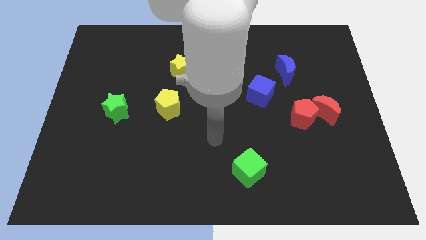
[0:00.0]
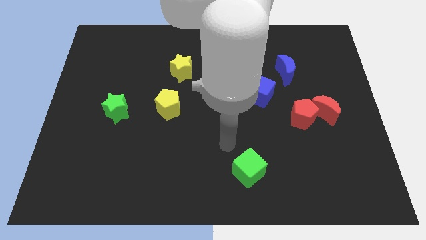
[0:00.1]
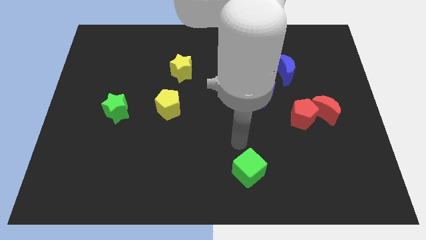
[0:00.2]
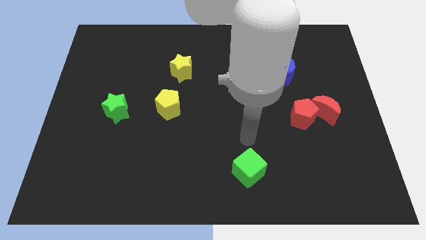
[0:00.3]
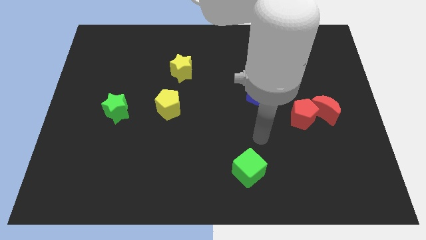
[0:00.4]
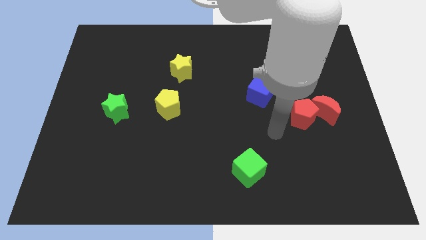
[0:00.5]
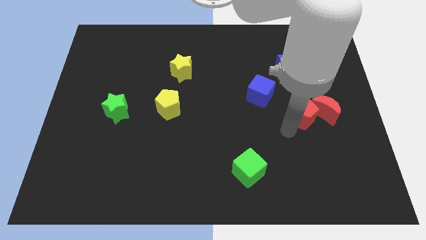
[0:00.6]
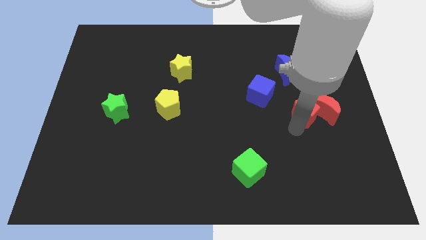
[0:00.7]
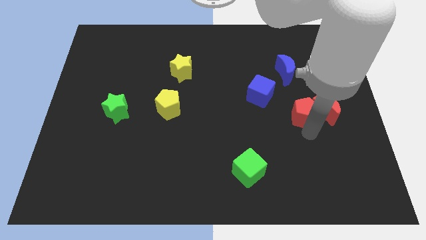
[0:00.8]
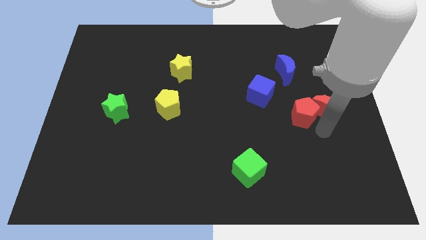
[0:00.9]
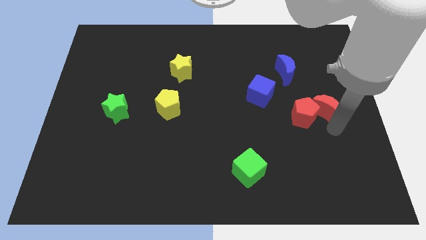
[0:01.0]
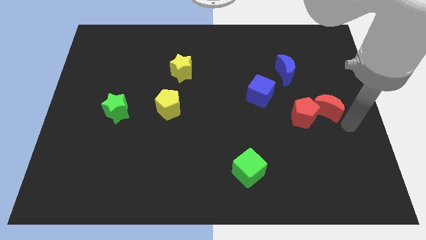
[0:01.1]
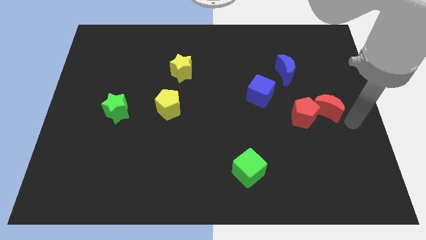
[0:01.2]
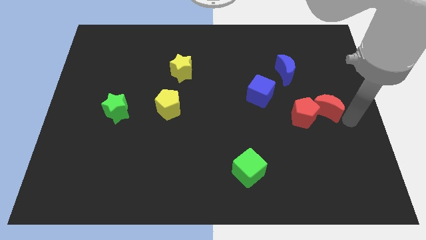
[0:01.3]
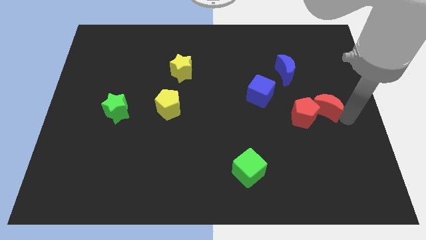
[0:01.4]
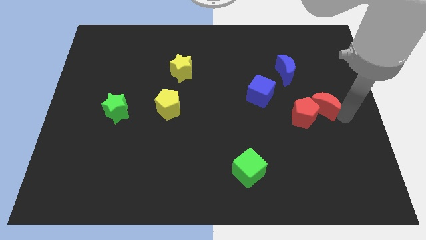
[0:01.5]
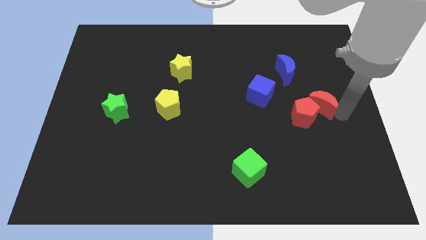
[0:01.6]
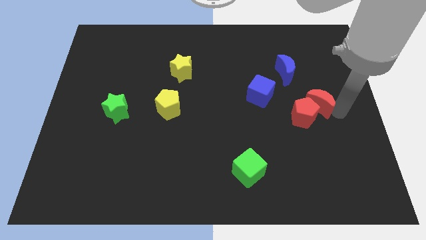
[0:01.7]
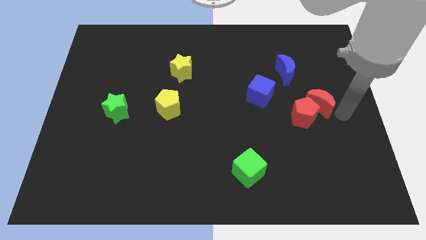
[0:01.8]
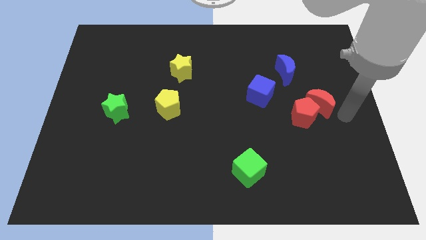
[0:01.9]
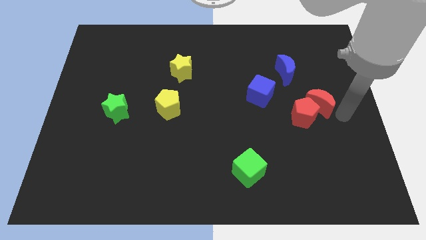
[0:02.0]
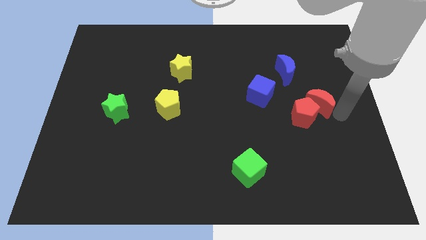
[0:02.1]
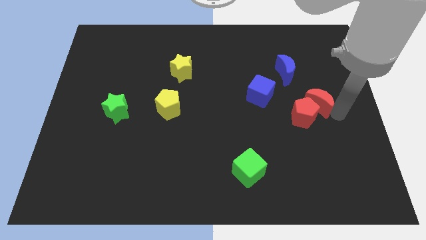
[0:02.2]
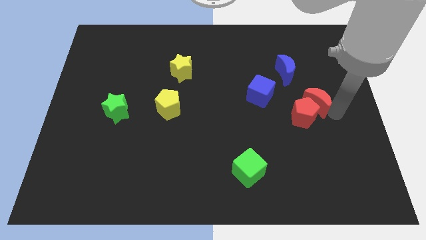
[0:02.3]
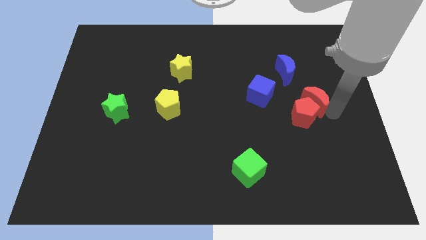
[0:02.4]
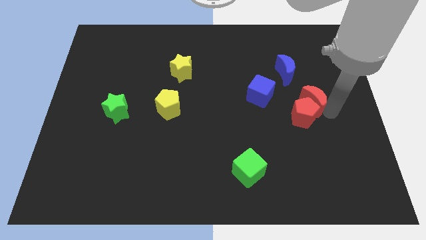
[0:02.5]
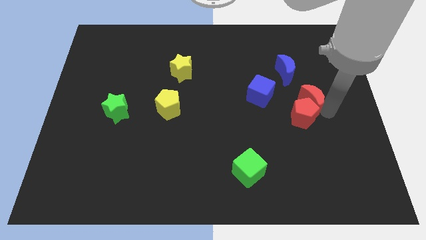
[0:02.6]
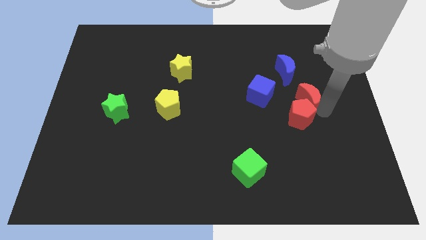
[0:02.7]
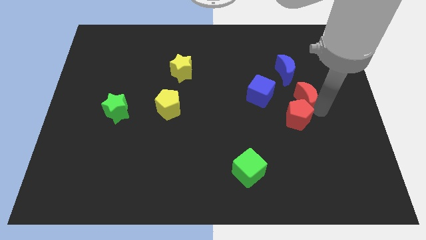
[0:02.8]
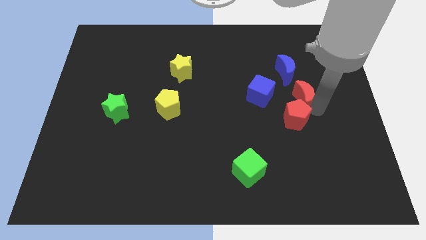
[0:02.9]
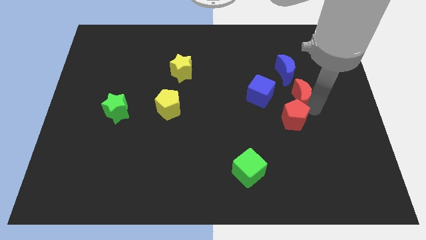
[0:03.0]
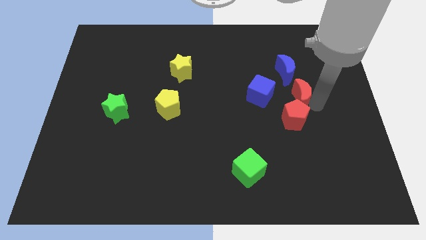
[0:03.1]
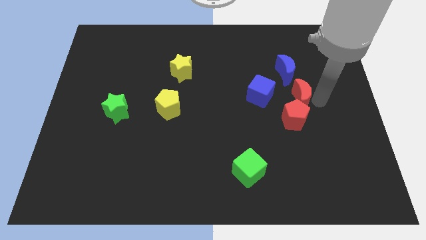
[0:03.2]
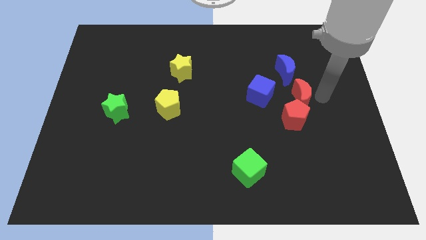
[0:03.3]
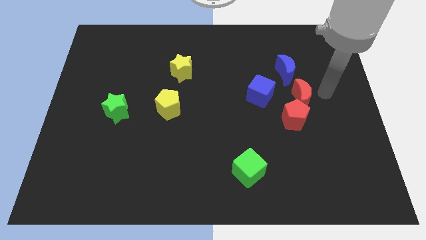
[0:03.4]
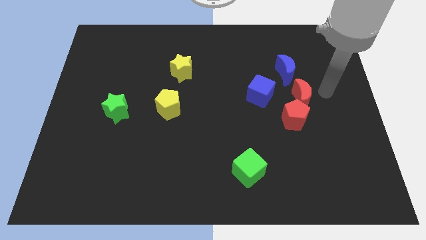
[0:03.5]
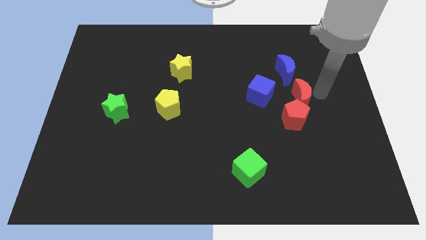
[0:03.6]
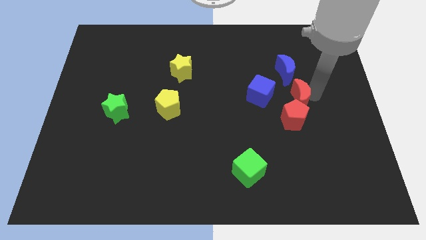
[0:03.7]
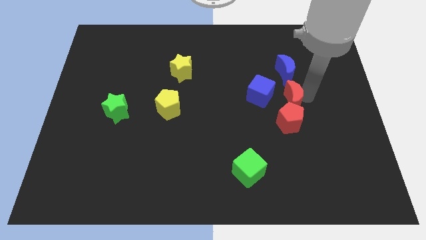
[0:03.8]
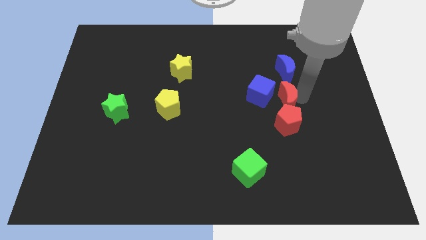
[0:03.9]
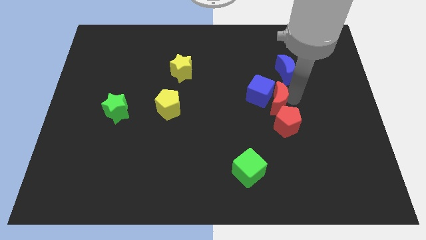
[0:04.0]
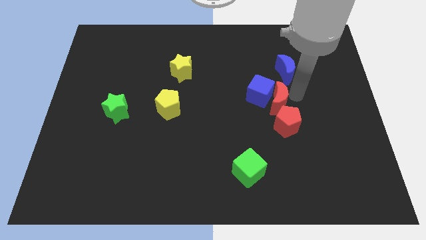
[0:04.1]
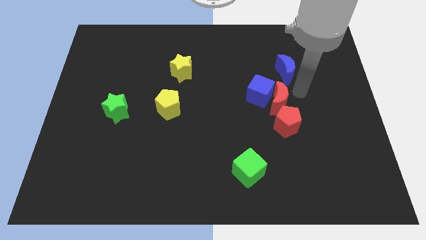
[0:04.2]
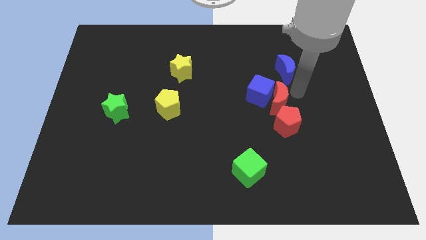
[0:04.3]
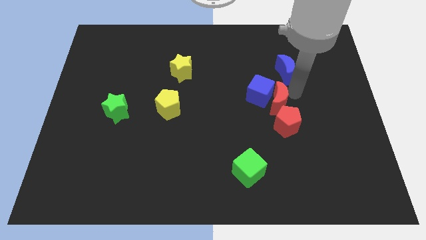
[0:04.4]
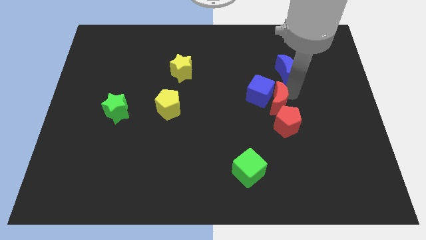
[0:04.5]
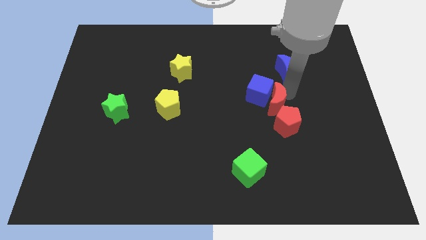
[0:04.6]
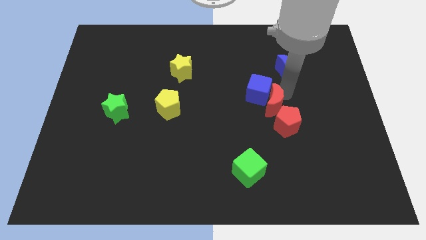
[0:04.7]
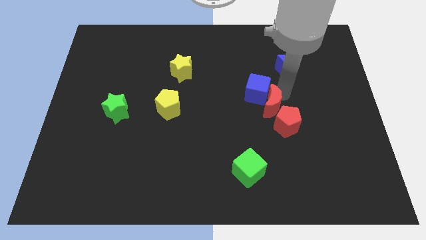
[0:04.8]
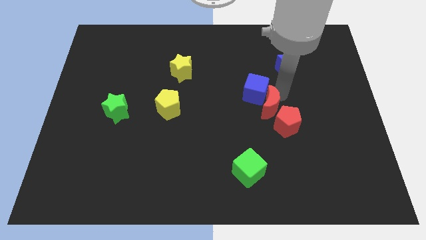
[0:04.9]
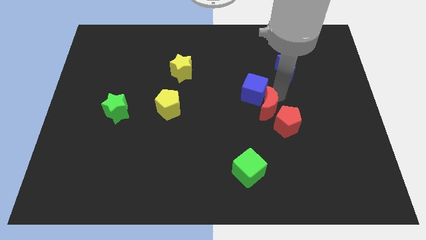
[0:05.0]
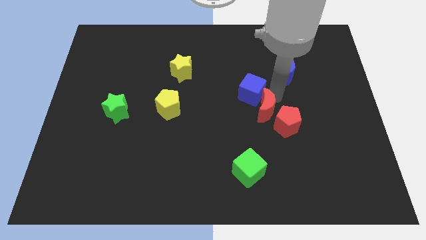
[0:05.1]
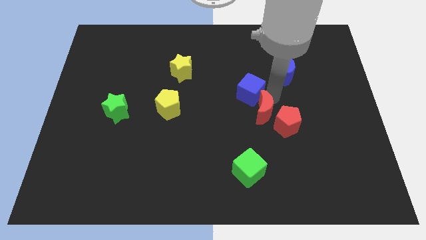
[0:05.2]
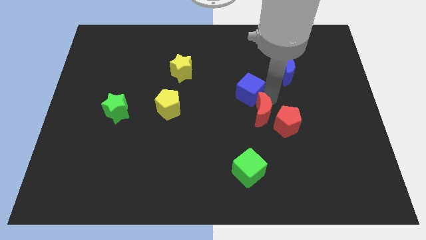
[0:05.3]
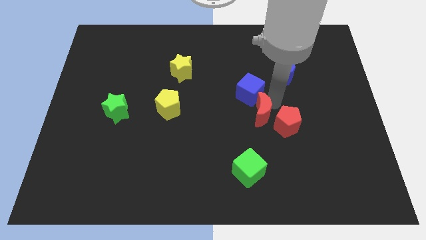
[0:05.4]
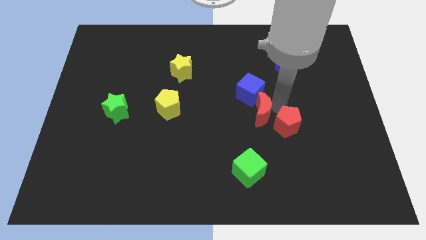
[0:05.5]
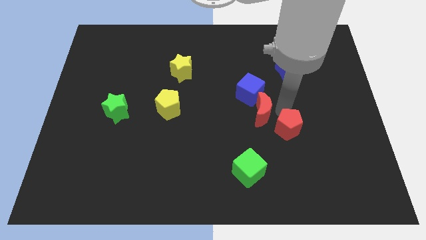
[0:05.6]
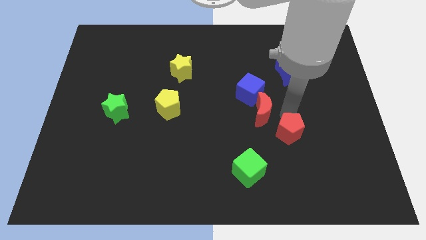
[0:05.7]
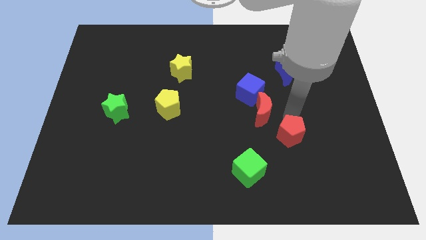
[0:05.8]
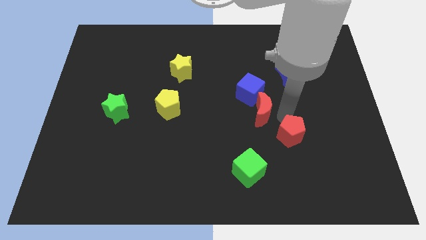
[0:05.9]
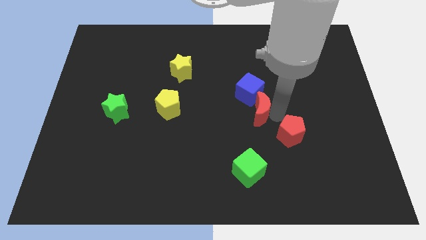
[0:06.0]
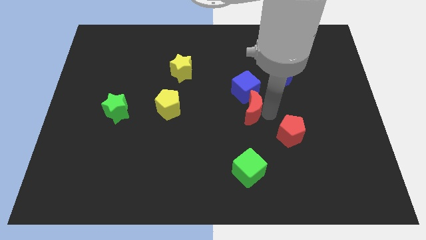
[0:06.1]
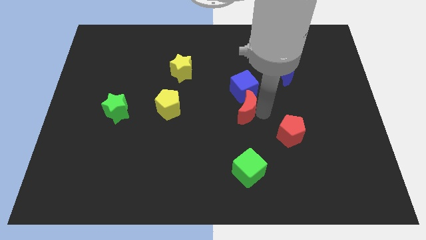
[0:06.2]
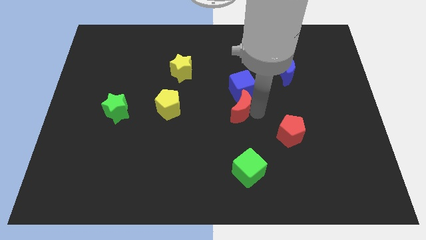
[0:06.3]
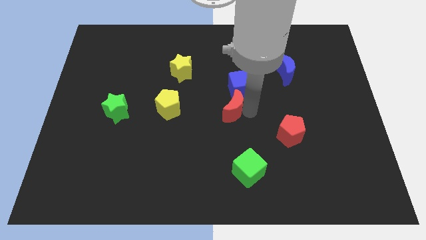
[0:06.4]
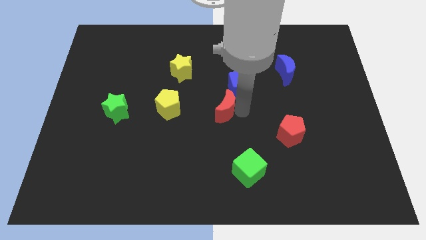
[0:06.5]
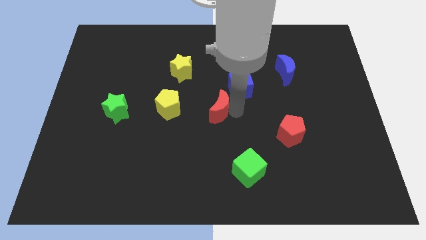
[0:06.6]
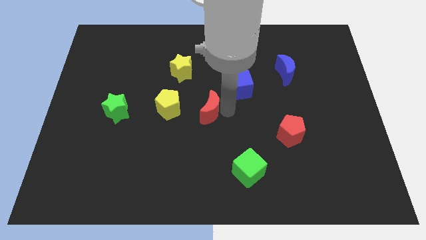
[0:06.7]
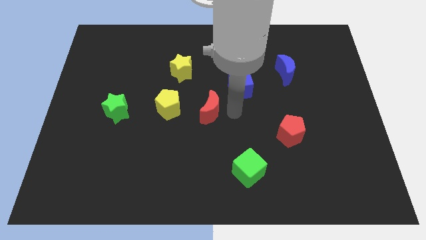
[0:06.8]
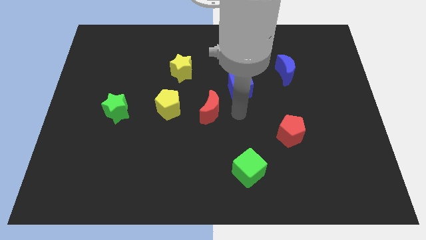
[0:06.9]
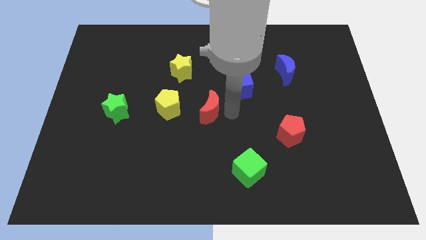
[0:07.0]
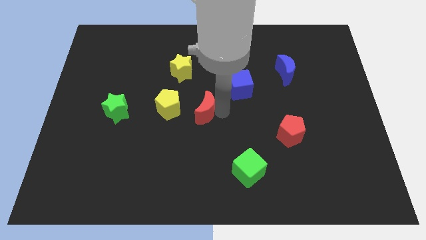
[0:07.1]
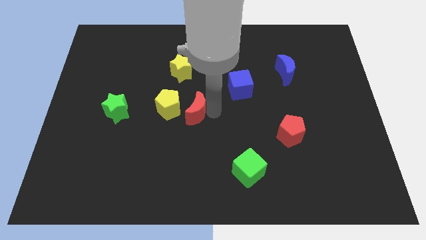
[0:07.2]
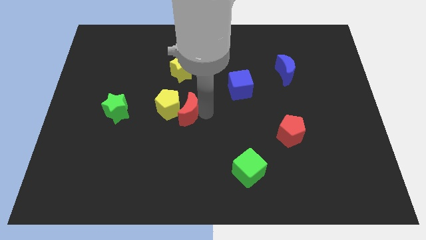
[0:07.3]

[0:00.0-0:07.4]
push the red moon towards the yellow pentagon
